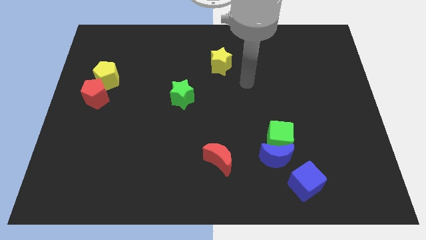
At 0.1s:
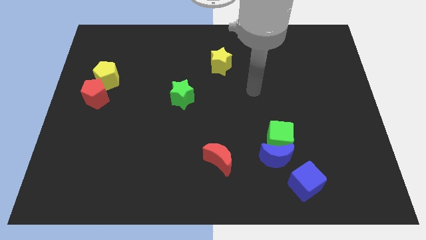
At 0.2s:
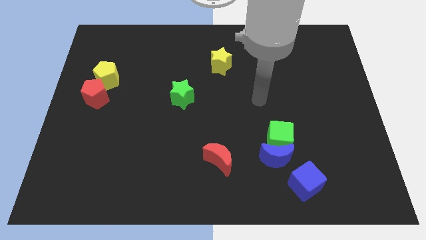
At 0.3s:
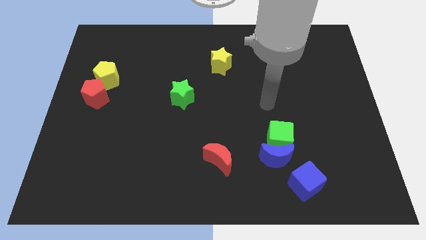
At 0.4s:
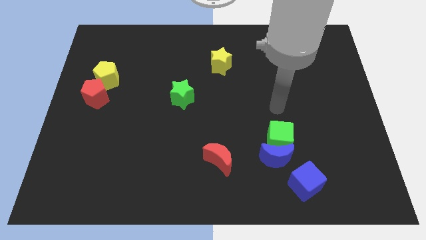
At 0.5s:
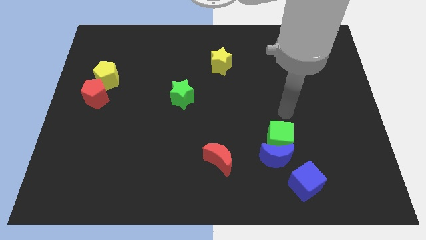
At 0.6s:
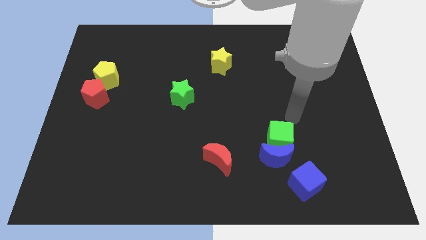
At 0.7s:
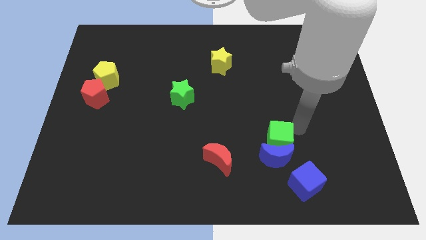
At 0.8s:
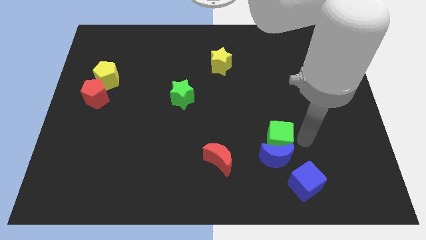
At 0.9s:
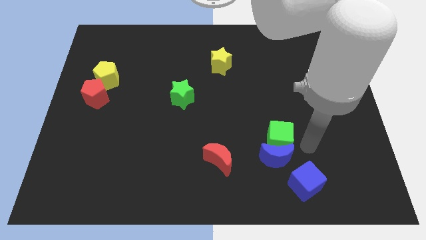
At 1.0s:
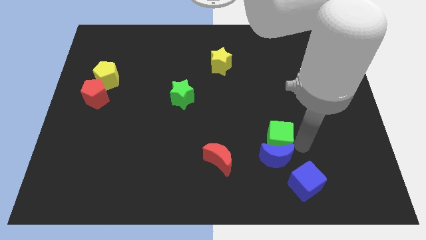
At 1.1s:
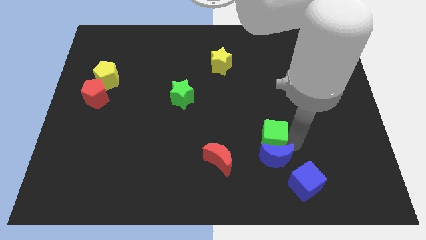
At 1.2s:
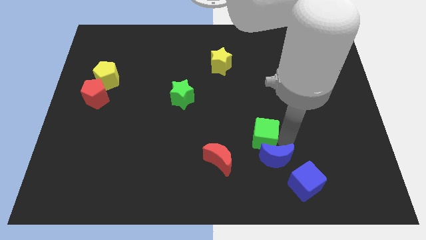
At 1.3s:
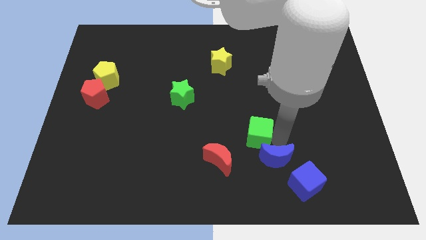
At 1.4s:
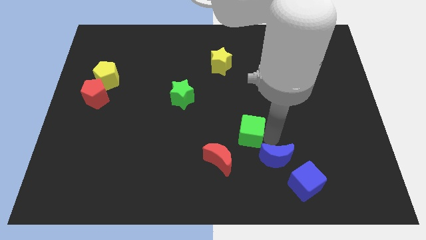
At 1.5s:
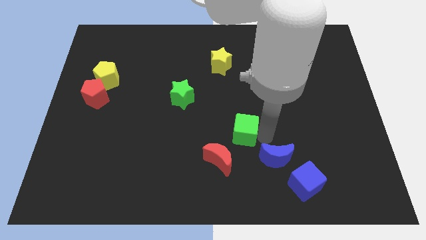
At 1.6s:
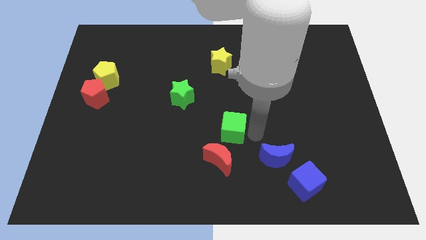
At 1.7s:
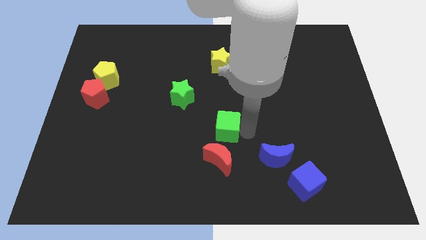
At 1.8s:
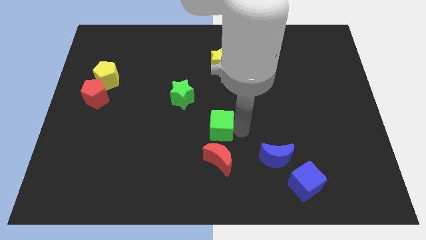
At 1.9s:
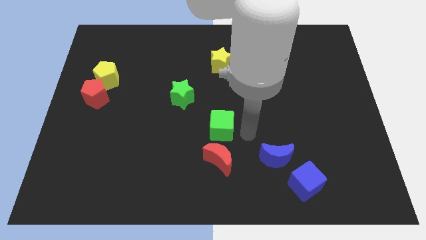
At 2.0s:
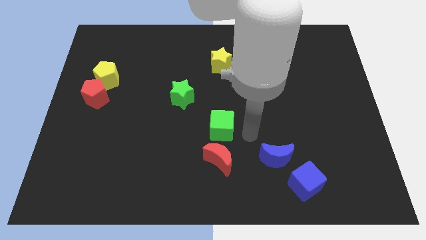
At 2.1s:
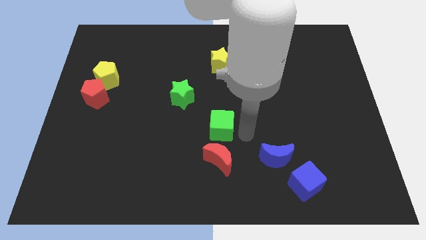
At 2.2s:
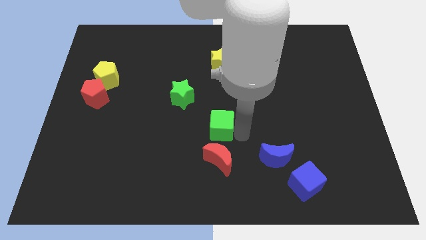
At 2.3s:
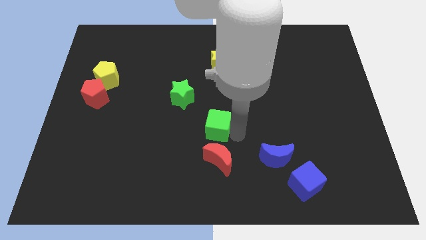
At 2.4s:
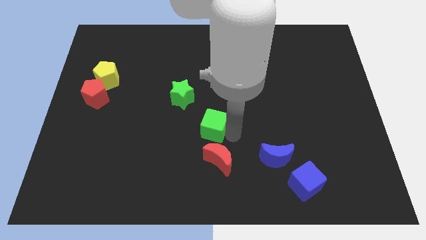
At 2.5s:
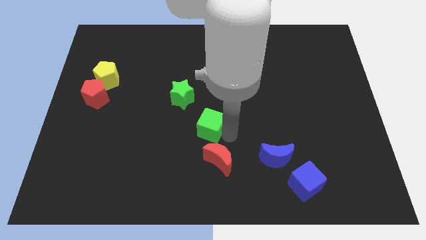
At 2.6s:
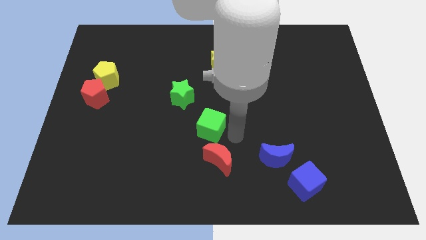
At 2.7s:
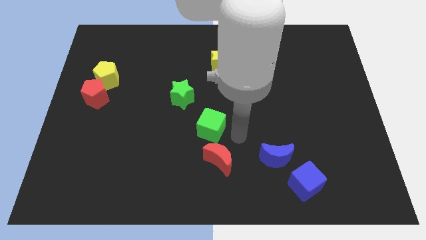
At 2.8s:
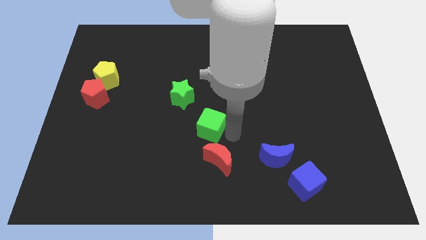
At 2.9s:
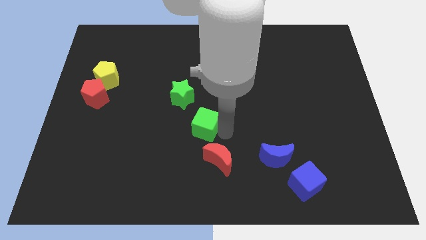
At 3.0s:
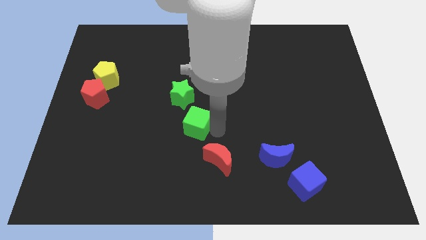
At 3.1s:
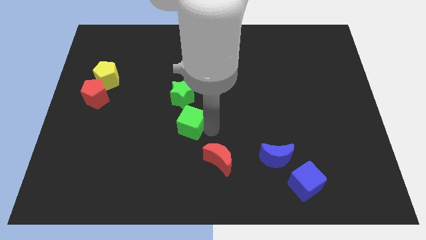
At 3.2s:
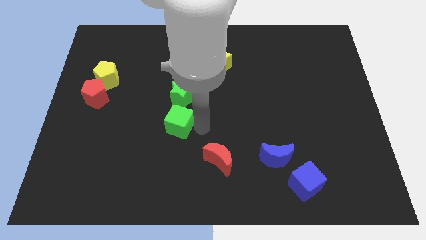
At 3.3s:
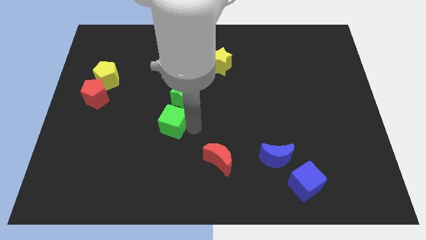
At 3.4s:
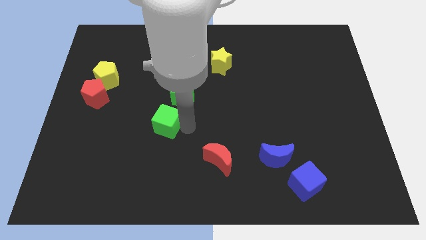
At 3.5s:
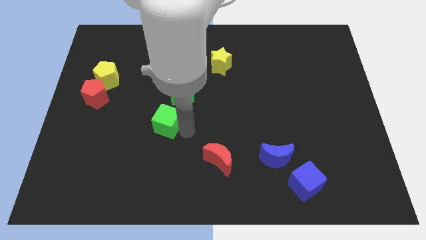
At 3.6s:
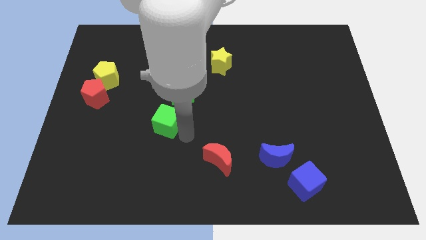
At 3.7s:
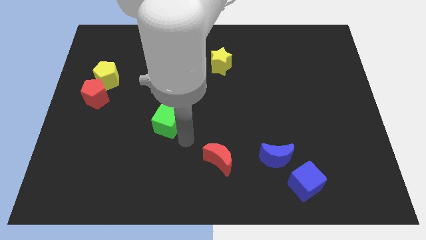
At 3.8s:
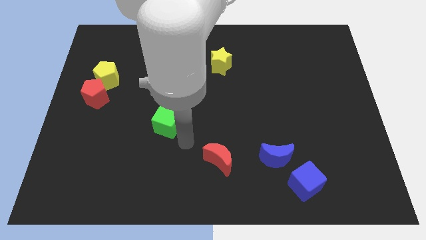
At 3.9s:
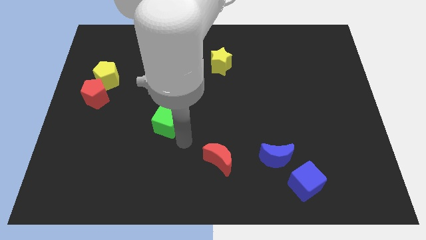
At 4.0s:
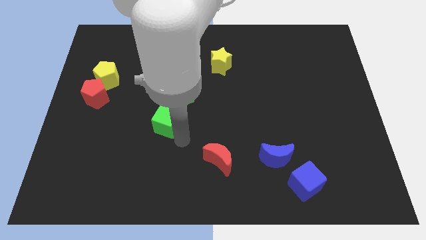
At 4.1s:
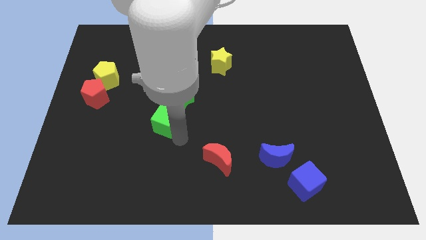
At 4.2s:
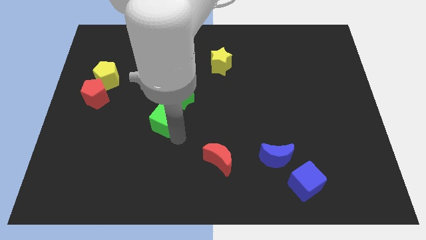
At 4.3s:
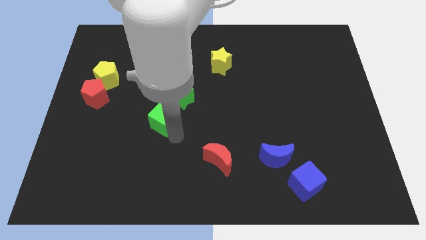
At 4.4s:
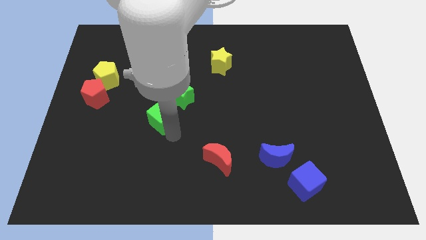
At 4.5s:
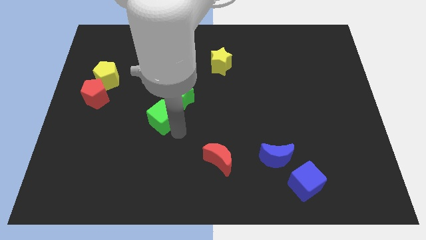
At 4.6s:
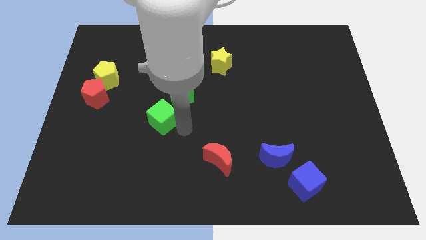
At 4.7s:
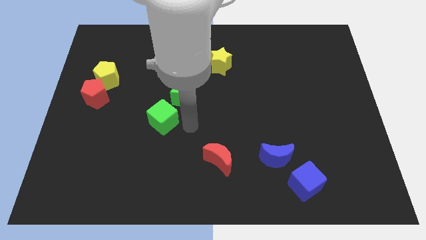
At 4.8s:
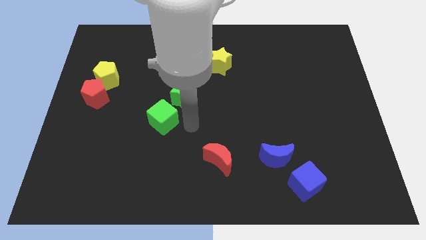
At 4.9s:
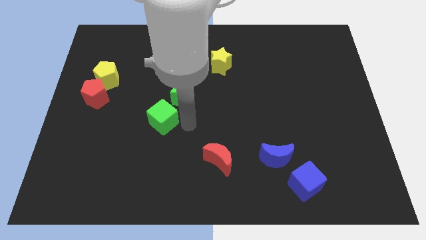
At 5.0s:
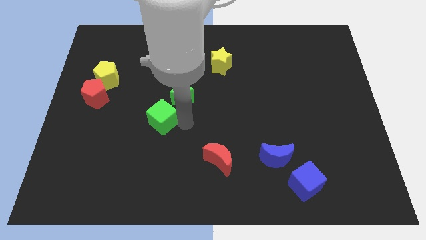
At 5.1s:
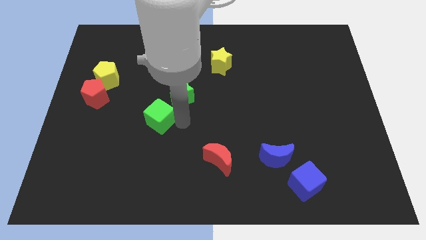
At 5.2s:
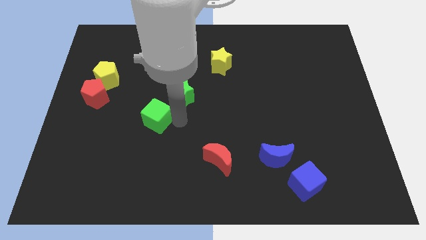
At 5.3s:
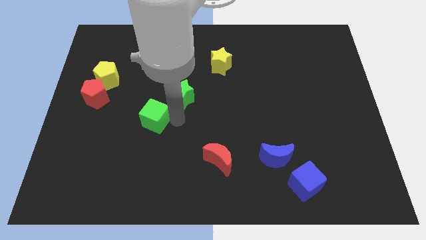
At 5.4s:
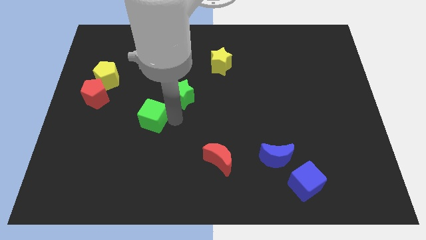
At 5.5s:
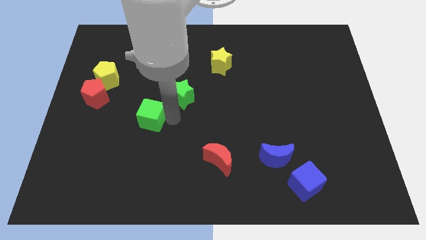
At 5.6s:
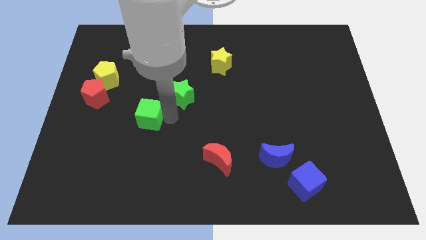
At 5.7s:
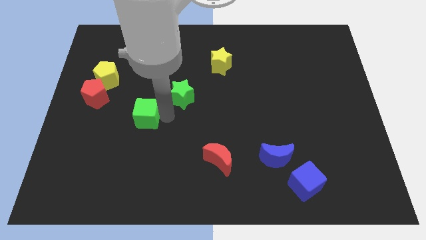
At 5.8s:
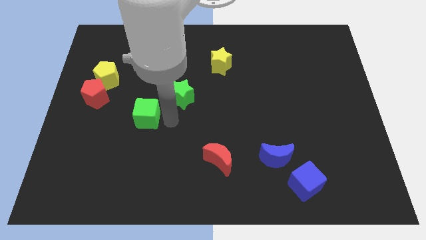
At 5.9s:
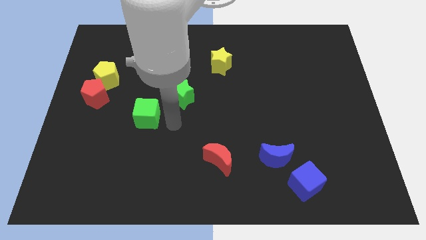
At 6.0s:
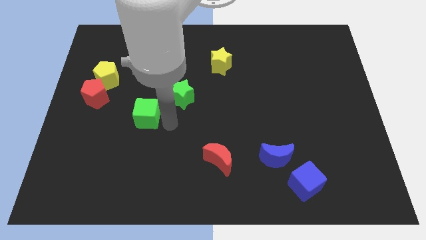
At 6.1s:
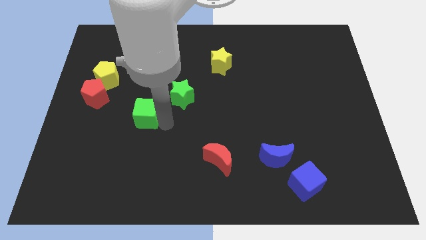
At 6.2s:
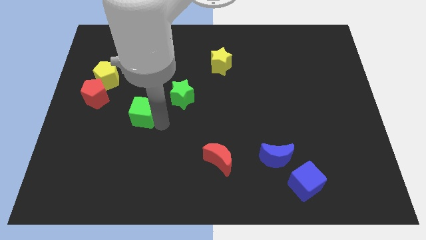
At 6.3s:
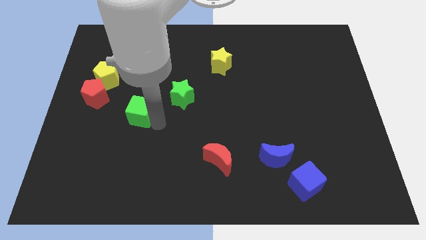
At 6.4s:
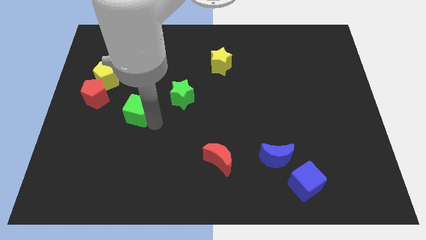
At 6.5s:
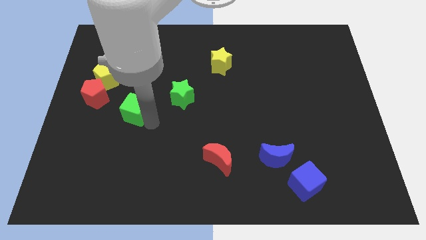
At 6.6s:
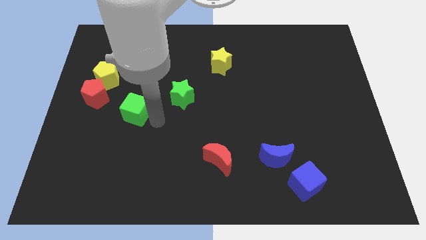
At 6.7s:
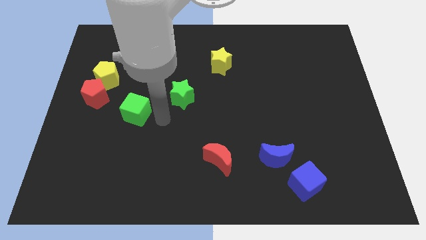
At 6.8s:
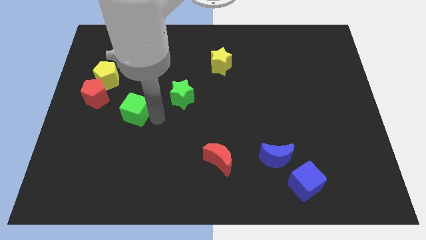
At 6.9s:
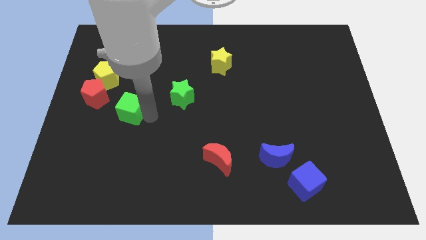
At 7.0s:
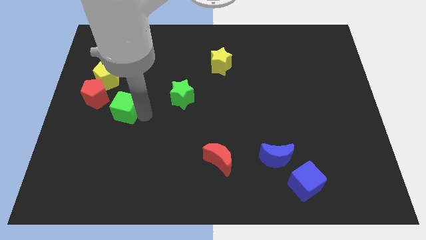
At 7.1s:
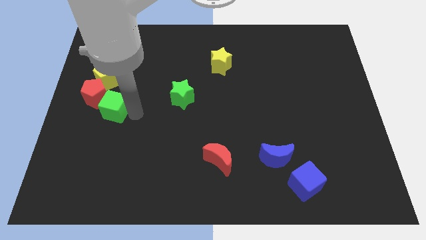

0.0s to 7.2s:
move the green cube to the red pentagon
